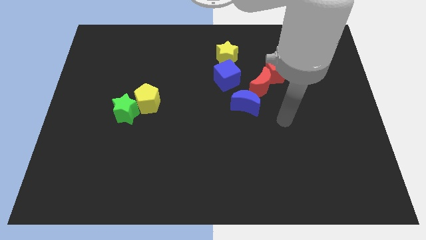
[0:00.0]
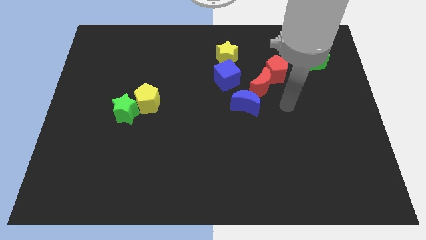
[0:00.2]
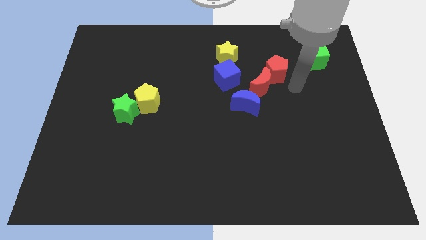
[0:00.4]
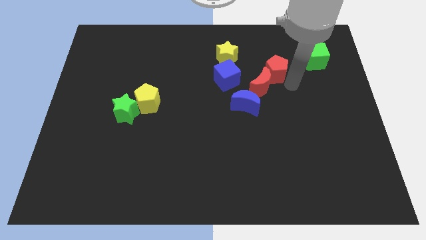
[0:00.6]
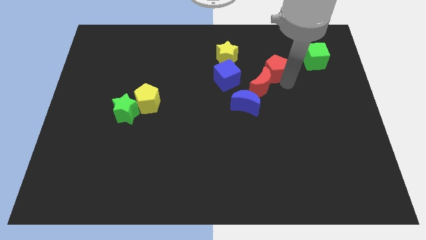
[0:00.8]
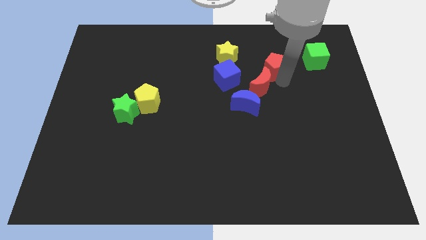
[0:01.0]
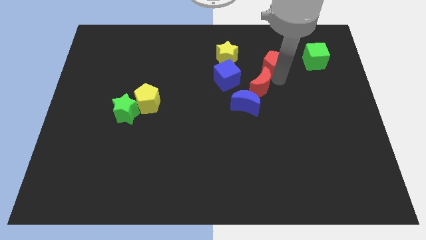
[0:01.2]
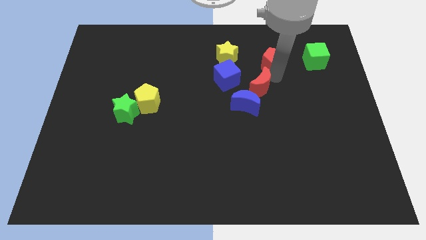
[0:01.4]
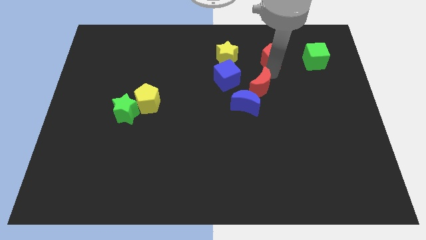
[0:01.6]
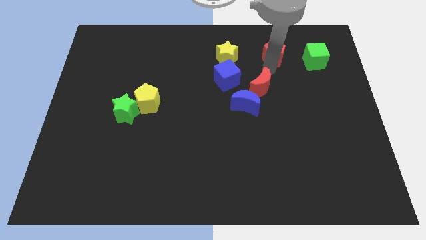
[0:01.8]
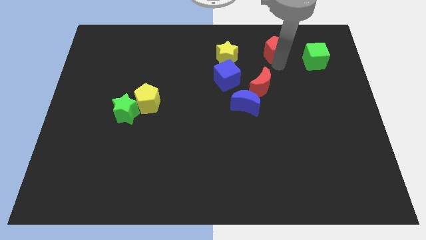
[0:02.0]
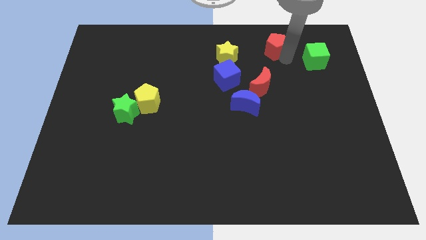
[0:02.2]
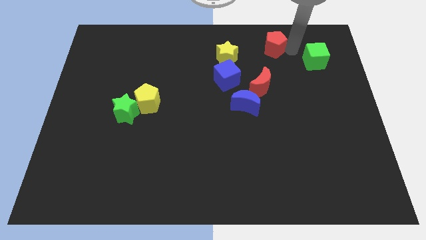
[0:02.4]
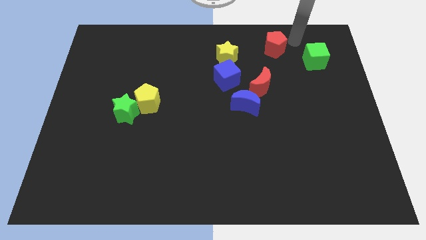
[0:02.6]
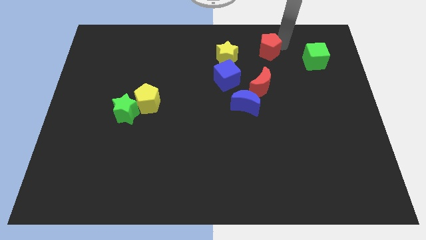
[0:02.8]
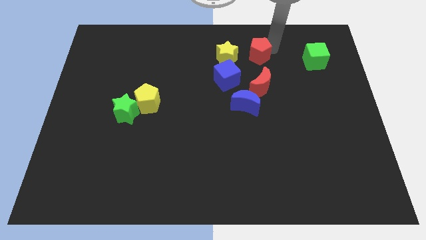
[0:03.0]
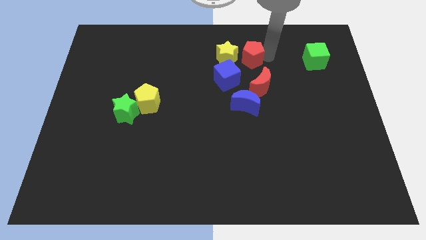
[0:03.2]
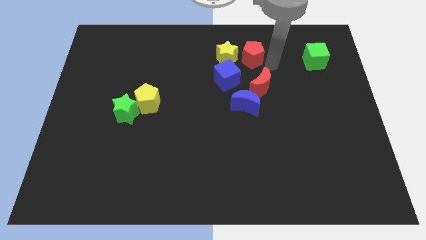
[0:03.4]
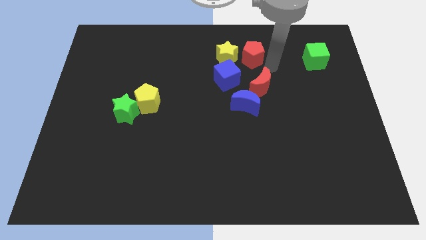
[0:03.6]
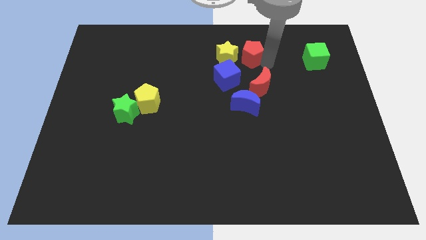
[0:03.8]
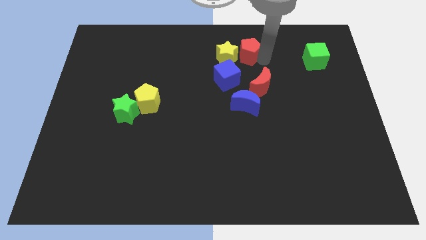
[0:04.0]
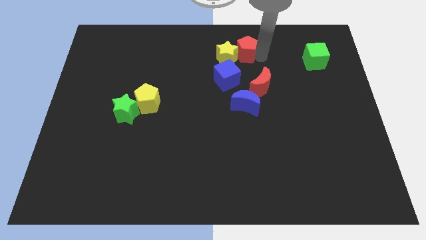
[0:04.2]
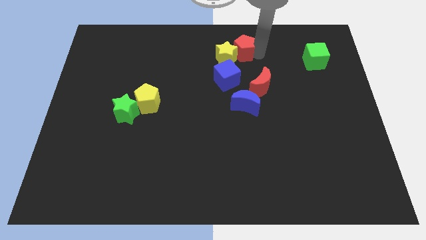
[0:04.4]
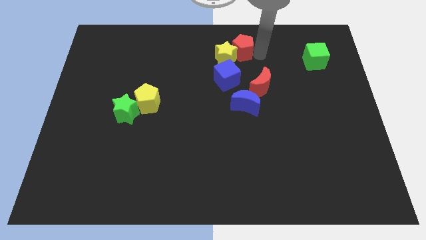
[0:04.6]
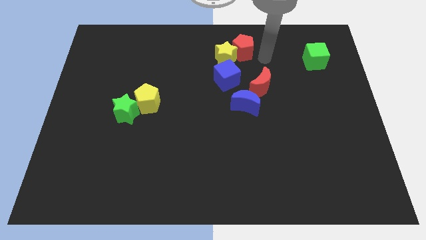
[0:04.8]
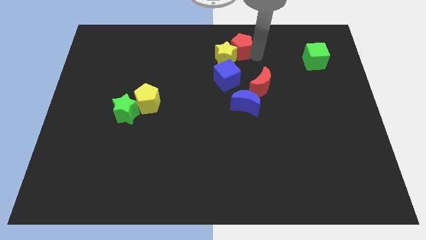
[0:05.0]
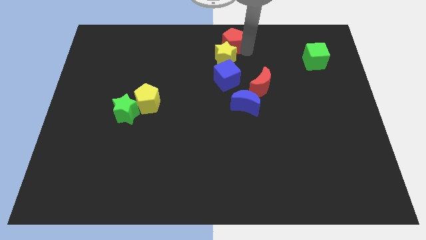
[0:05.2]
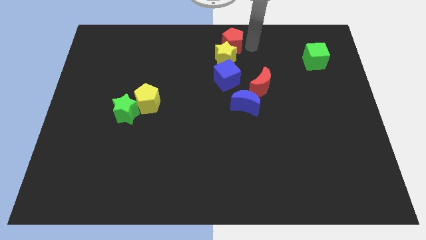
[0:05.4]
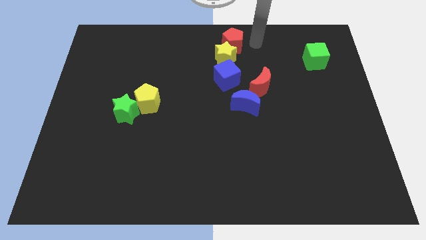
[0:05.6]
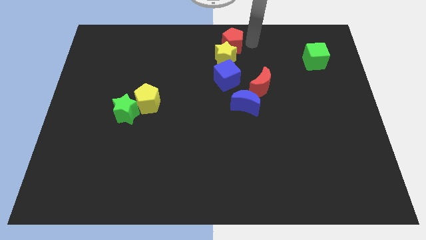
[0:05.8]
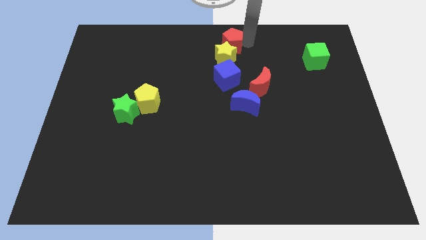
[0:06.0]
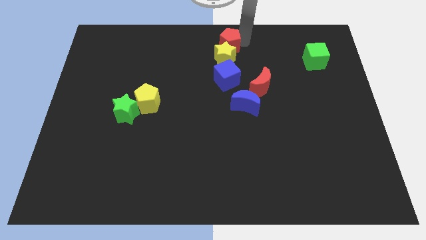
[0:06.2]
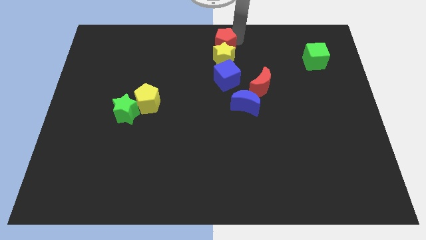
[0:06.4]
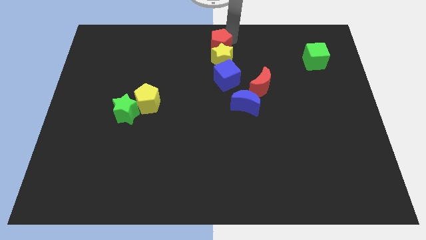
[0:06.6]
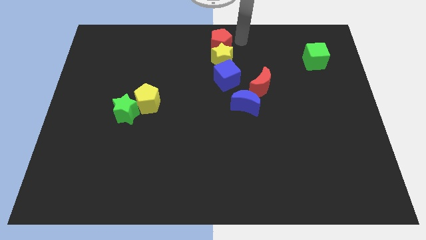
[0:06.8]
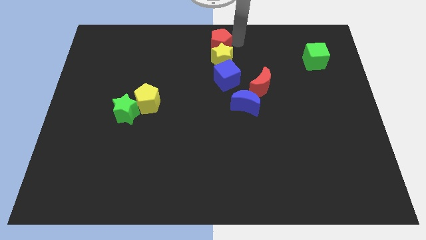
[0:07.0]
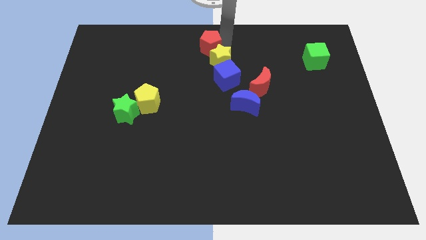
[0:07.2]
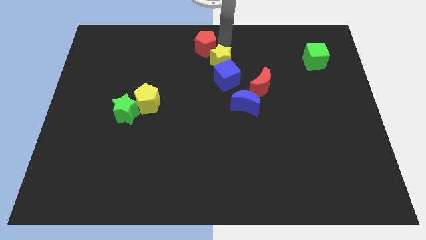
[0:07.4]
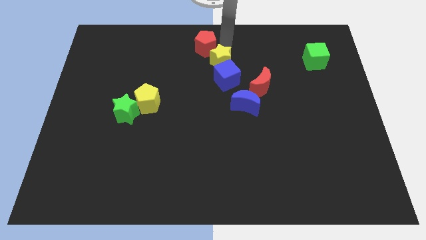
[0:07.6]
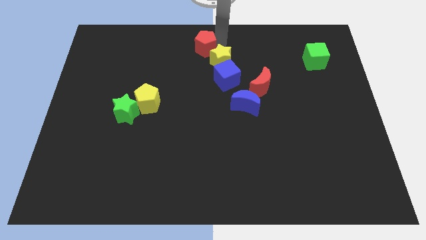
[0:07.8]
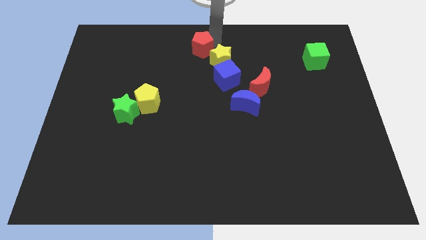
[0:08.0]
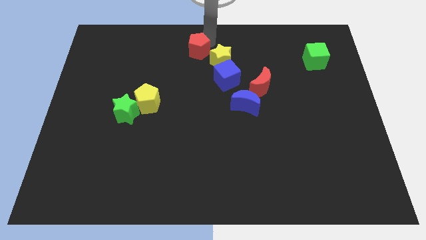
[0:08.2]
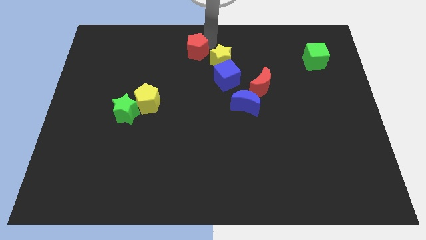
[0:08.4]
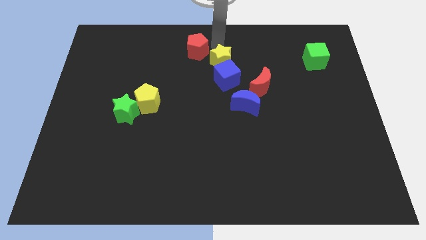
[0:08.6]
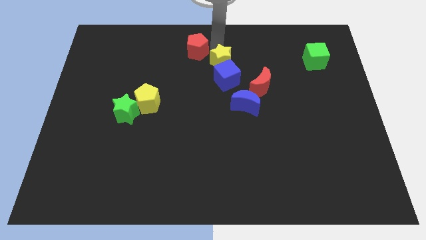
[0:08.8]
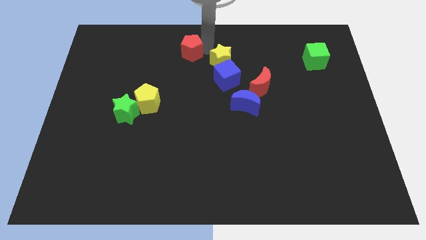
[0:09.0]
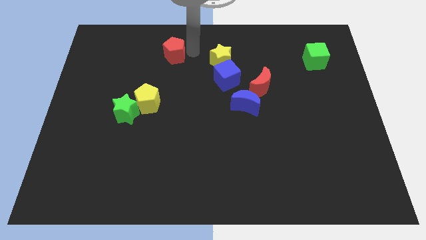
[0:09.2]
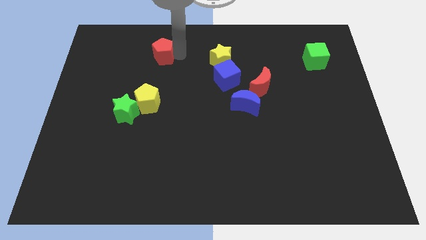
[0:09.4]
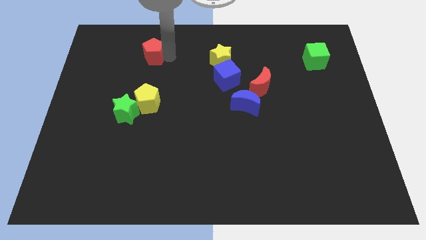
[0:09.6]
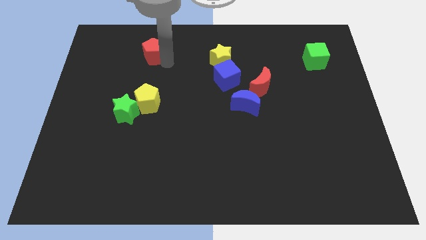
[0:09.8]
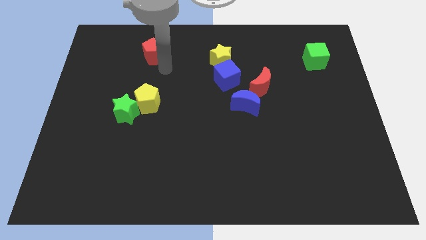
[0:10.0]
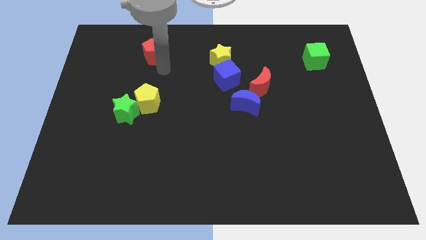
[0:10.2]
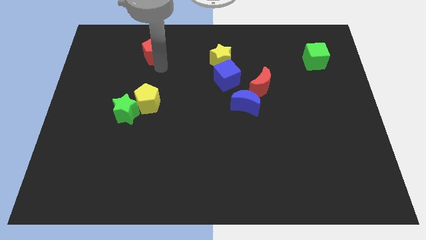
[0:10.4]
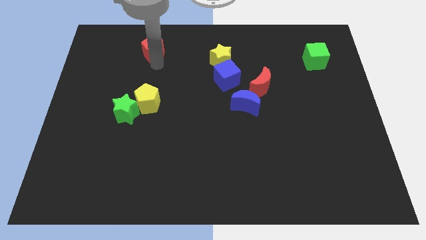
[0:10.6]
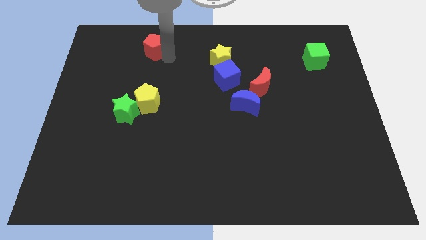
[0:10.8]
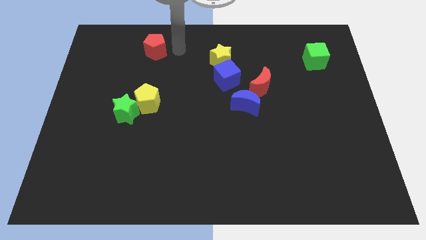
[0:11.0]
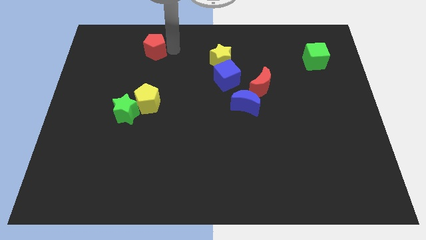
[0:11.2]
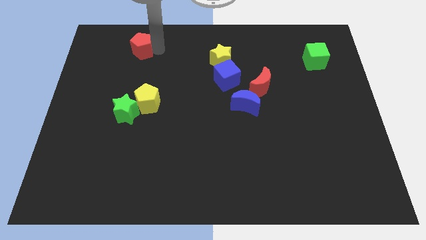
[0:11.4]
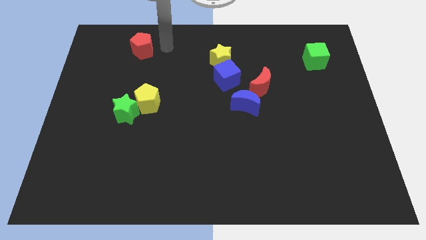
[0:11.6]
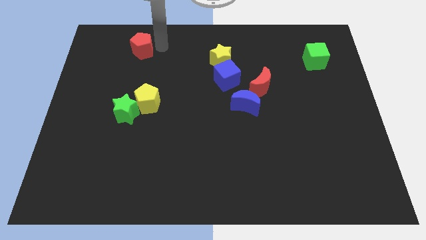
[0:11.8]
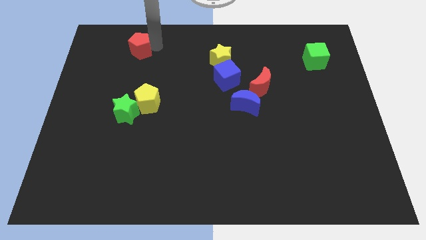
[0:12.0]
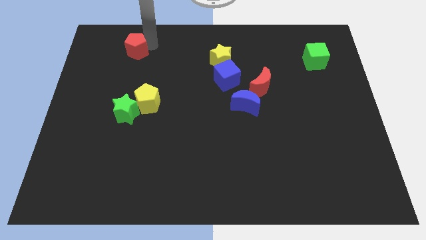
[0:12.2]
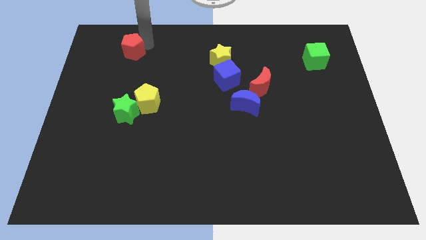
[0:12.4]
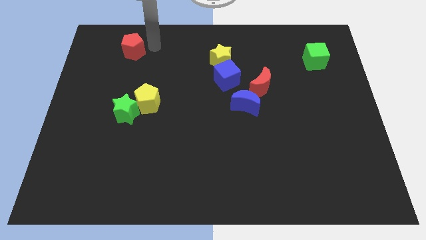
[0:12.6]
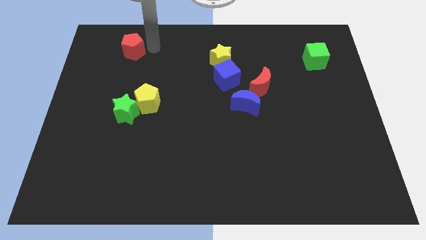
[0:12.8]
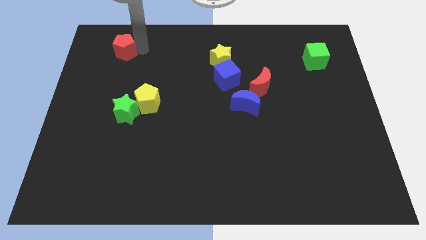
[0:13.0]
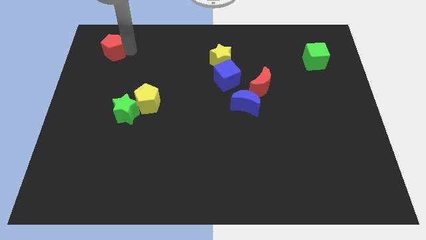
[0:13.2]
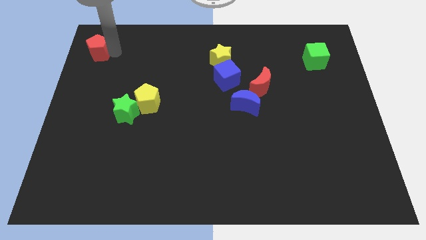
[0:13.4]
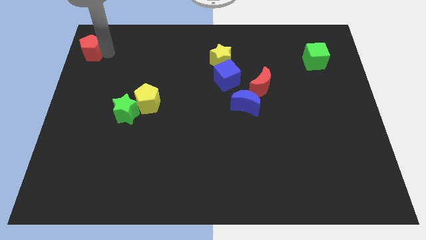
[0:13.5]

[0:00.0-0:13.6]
slide the red pentagon to the upper left corner
